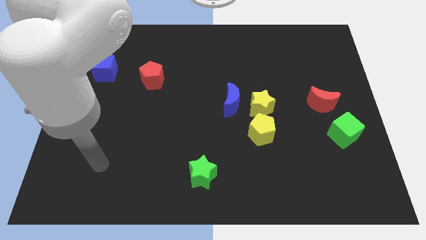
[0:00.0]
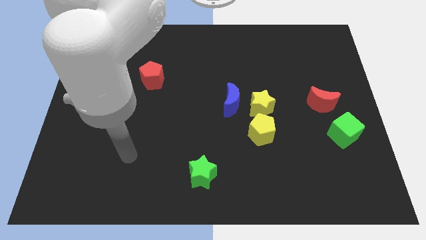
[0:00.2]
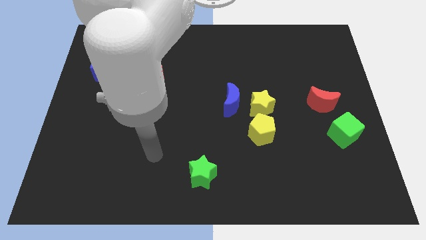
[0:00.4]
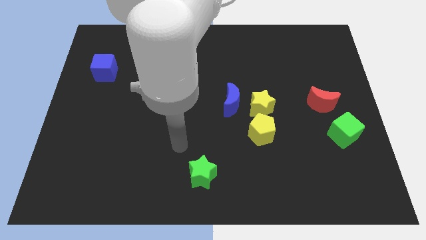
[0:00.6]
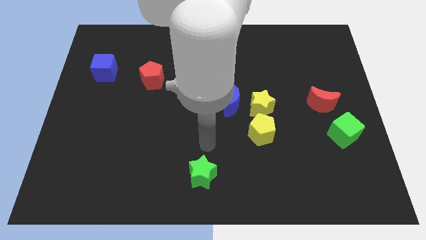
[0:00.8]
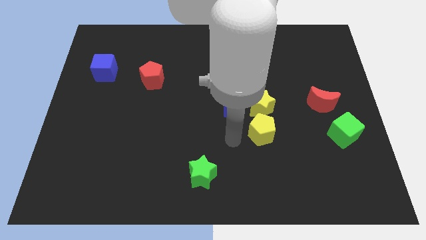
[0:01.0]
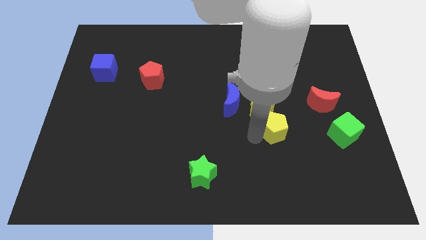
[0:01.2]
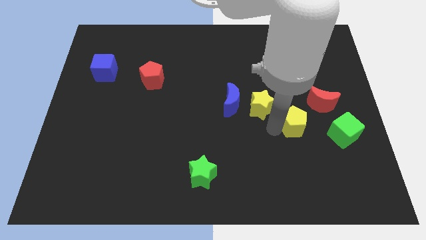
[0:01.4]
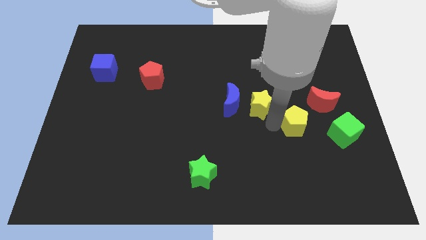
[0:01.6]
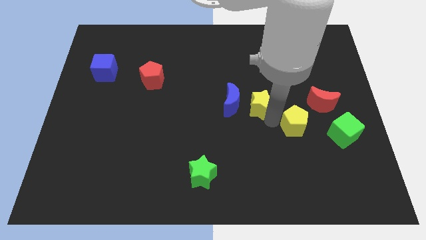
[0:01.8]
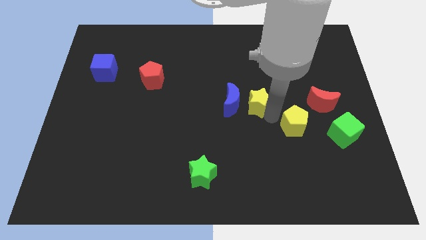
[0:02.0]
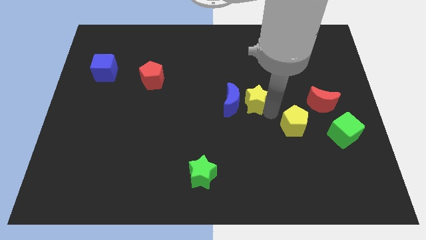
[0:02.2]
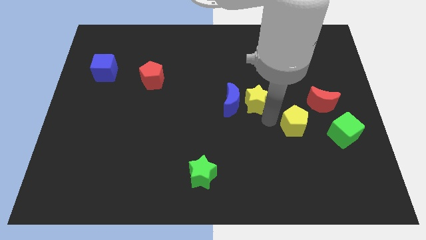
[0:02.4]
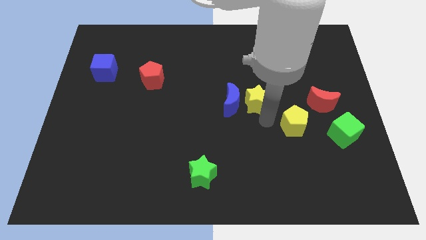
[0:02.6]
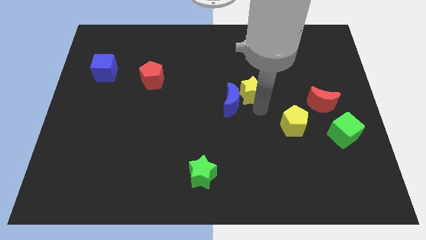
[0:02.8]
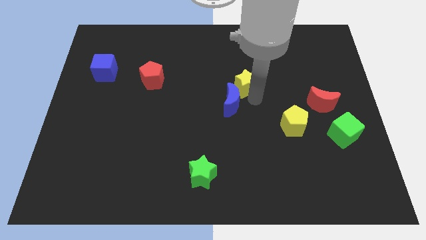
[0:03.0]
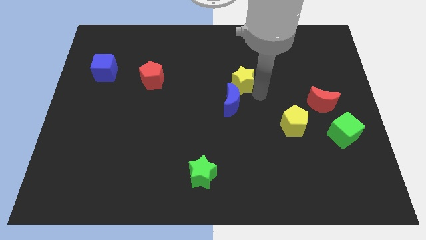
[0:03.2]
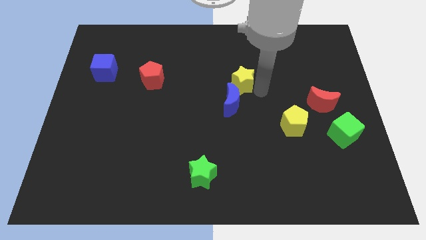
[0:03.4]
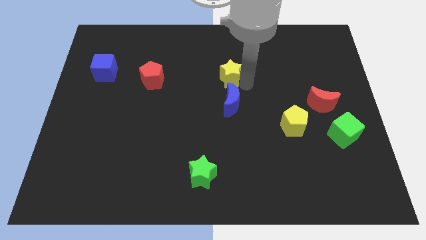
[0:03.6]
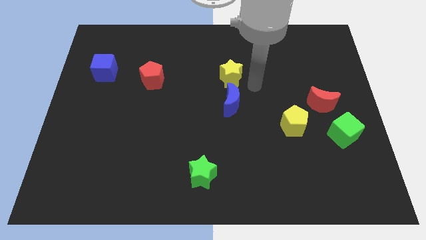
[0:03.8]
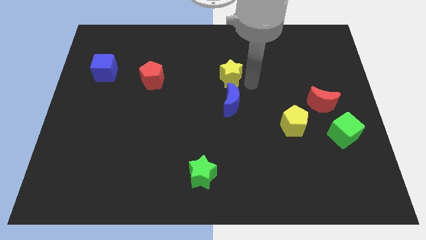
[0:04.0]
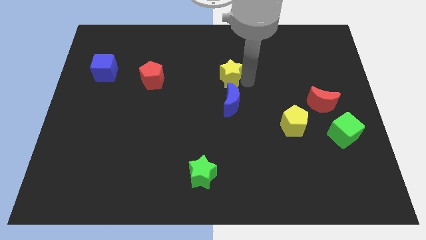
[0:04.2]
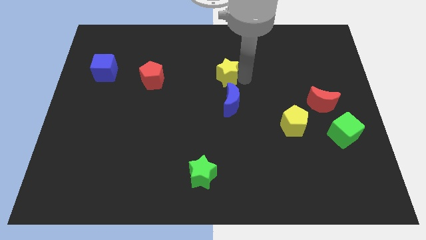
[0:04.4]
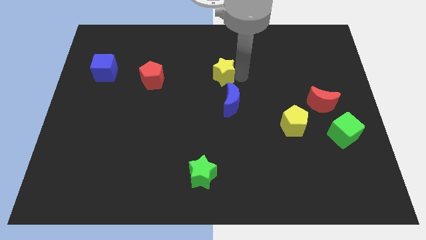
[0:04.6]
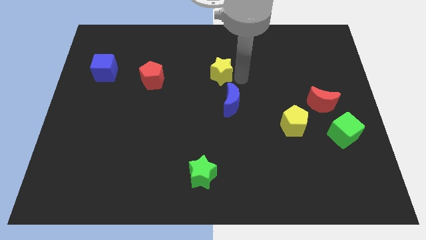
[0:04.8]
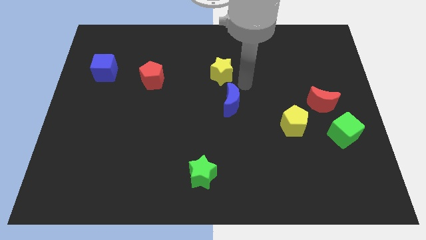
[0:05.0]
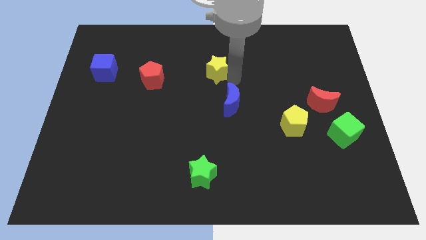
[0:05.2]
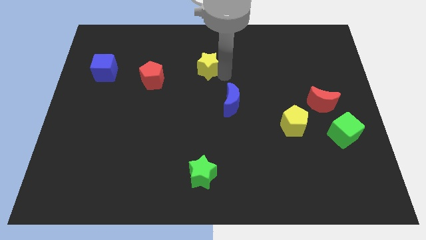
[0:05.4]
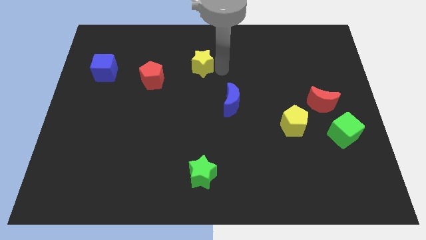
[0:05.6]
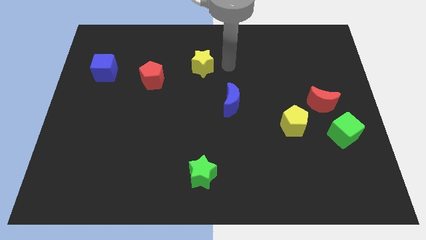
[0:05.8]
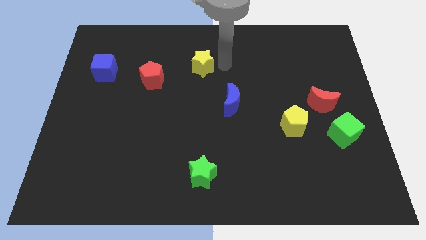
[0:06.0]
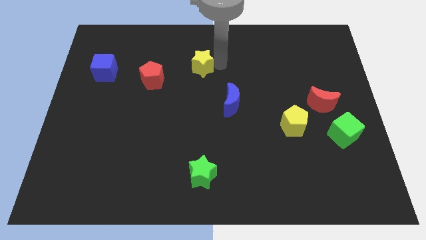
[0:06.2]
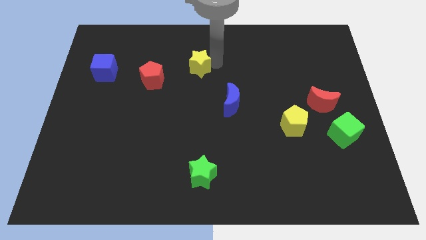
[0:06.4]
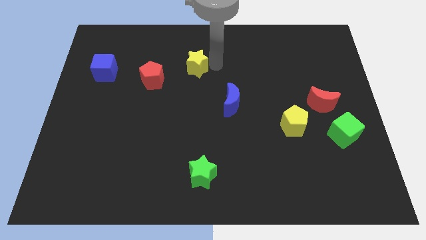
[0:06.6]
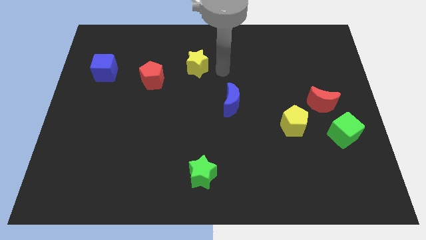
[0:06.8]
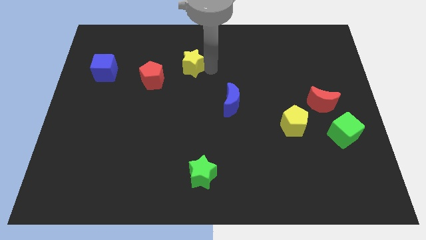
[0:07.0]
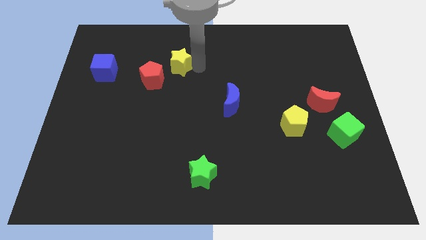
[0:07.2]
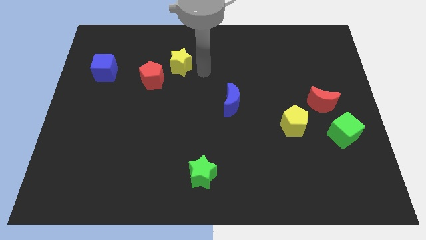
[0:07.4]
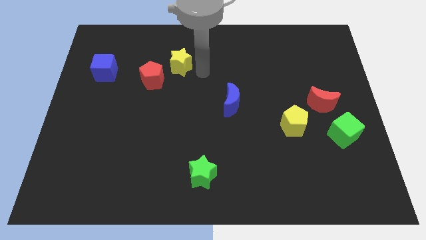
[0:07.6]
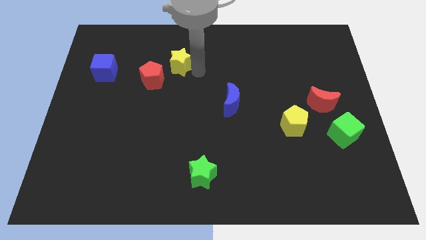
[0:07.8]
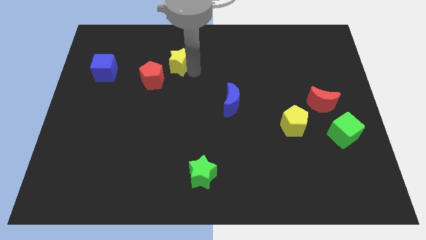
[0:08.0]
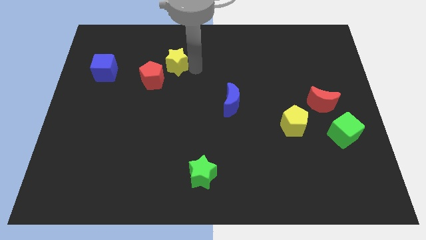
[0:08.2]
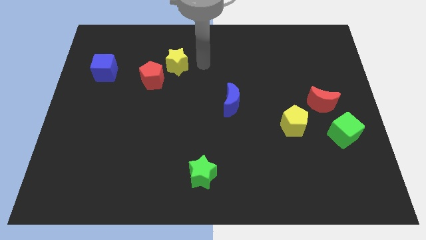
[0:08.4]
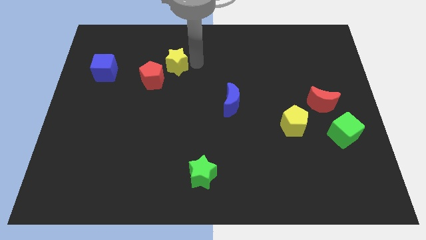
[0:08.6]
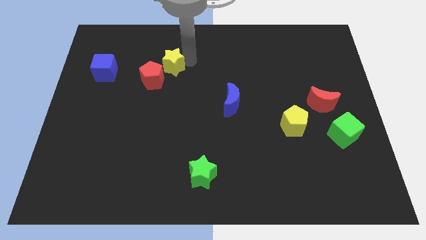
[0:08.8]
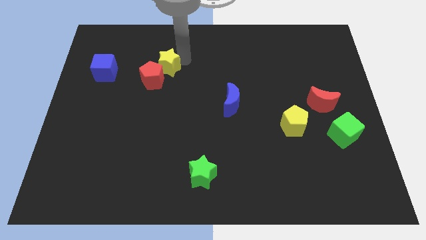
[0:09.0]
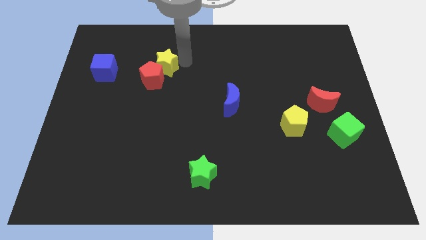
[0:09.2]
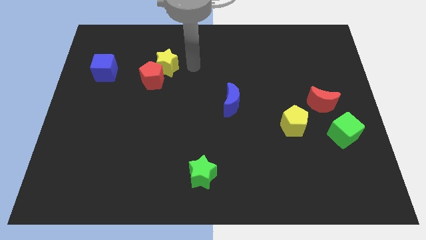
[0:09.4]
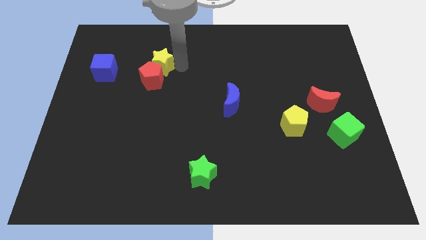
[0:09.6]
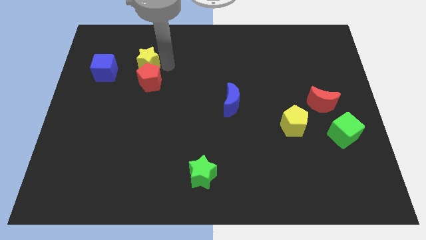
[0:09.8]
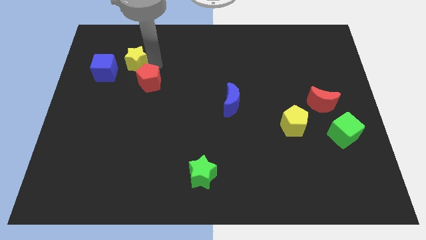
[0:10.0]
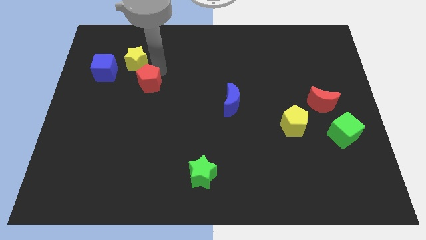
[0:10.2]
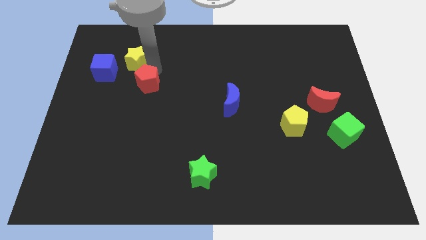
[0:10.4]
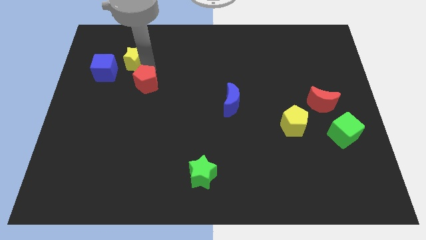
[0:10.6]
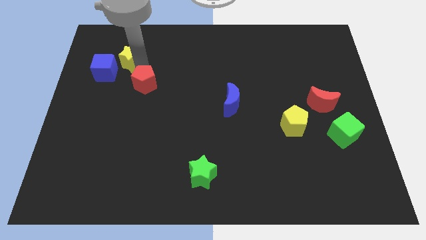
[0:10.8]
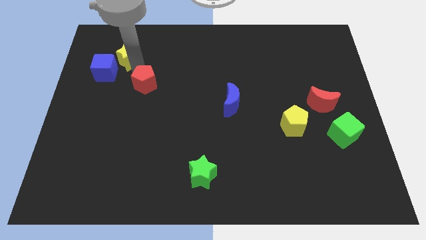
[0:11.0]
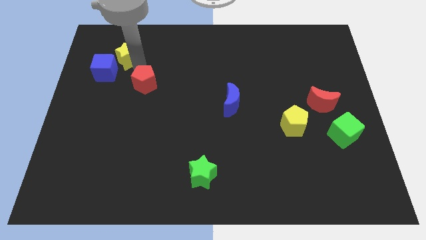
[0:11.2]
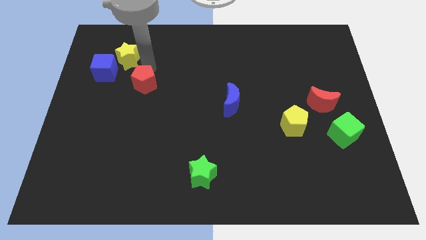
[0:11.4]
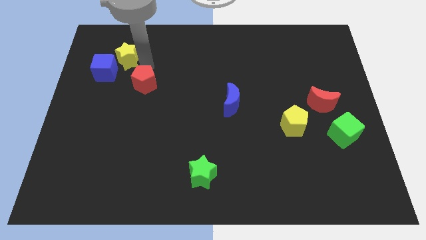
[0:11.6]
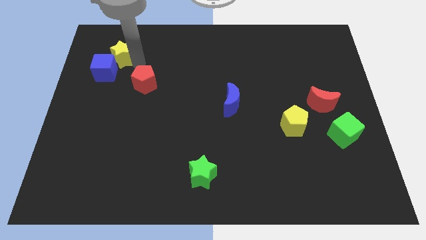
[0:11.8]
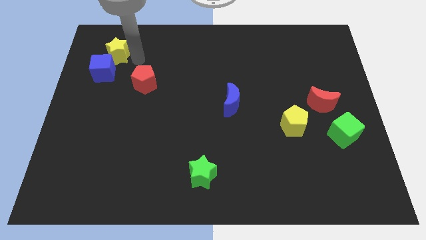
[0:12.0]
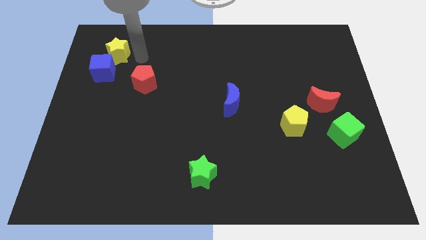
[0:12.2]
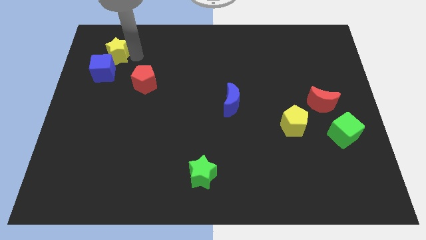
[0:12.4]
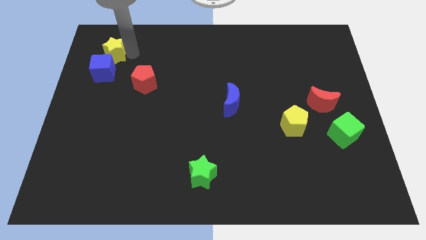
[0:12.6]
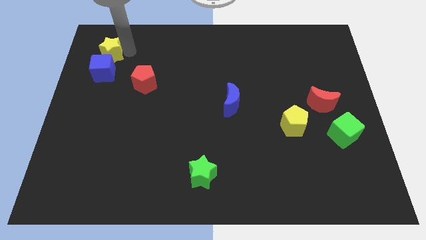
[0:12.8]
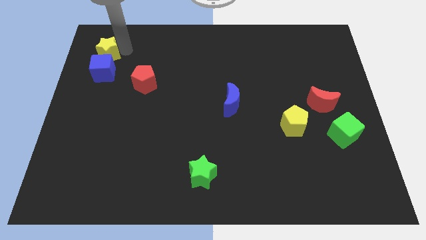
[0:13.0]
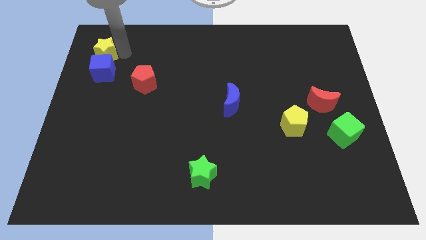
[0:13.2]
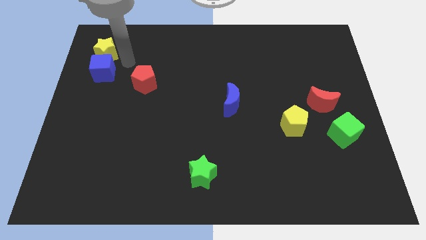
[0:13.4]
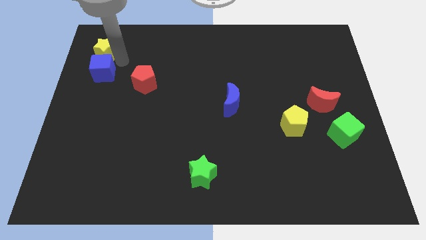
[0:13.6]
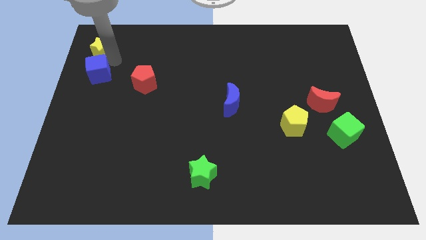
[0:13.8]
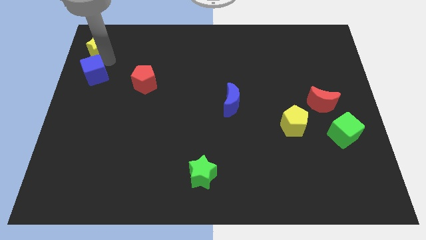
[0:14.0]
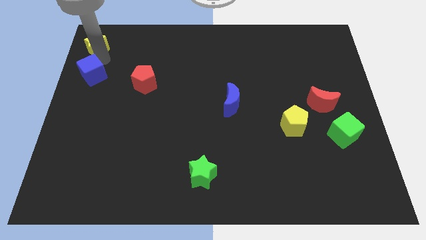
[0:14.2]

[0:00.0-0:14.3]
move the yellow star to the top left
